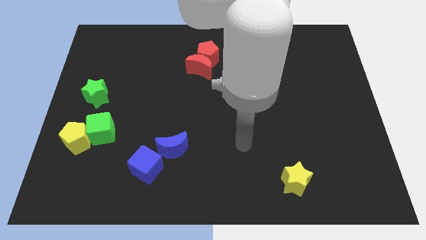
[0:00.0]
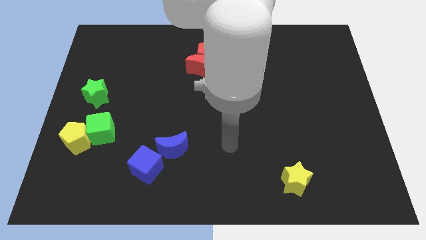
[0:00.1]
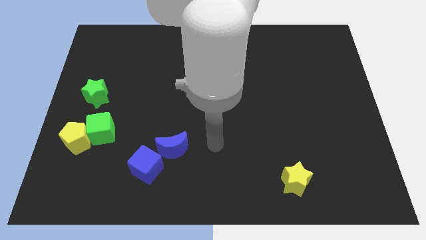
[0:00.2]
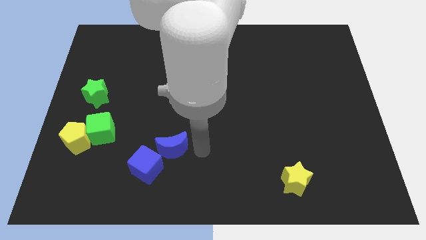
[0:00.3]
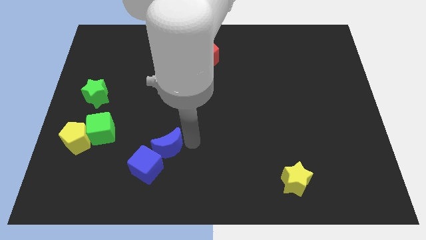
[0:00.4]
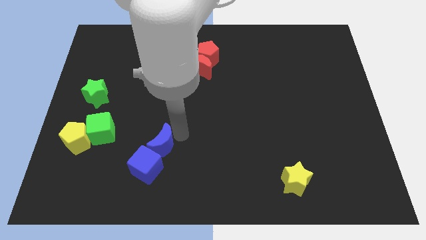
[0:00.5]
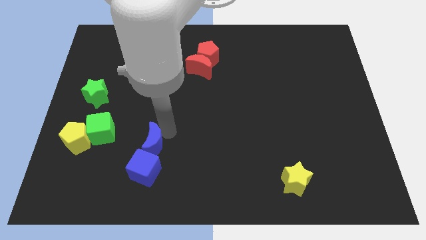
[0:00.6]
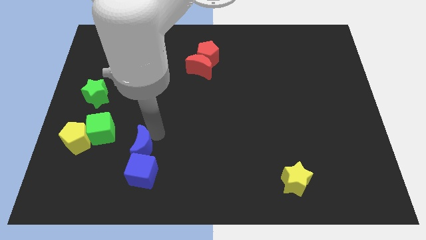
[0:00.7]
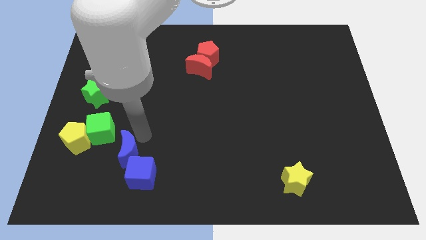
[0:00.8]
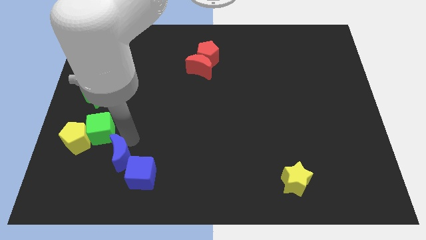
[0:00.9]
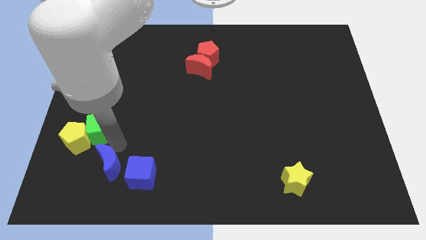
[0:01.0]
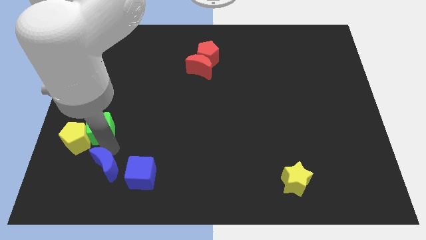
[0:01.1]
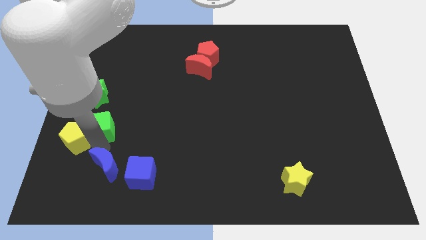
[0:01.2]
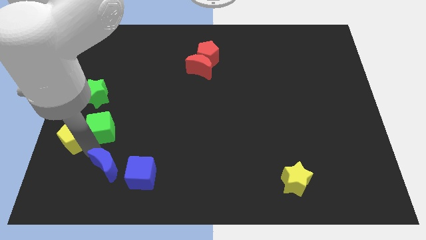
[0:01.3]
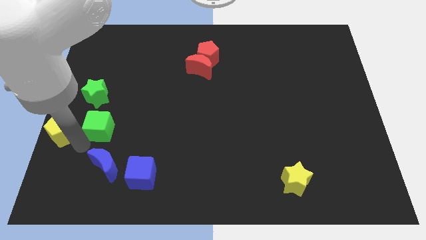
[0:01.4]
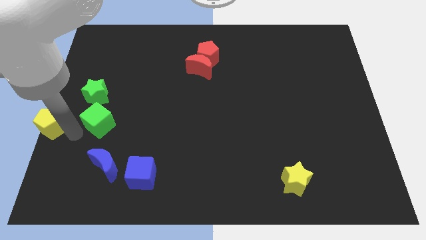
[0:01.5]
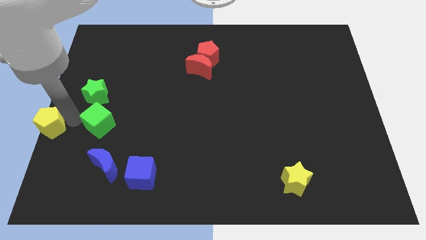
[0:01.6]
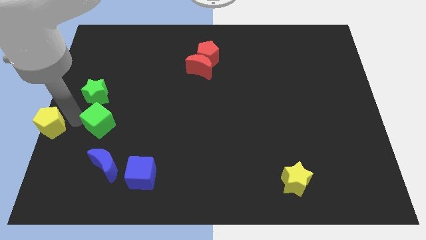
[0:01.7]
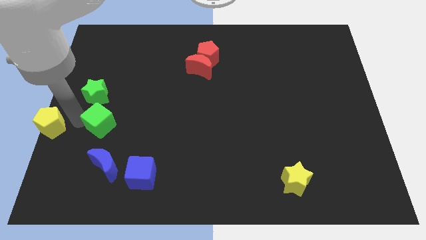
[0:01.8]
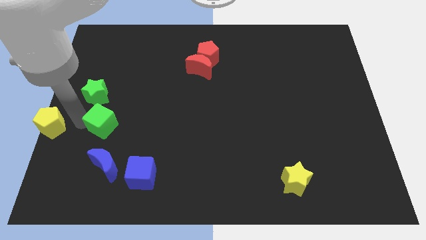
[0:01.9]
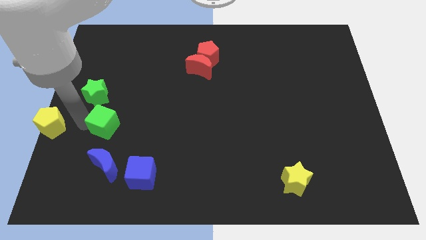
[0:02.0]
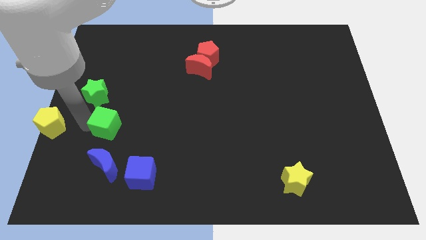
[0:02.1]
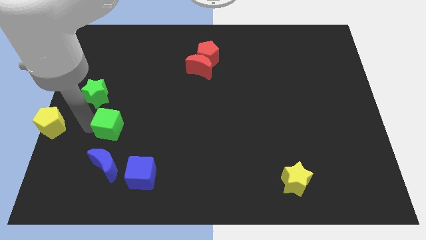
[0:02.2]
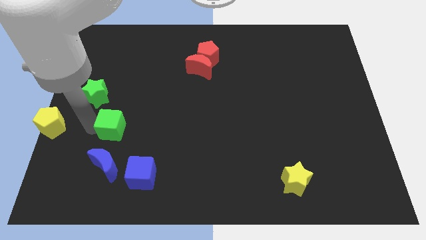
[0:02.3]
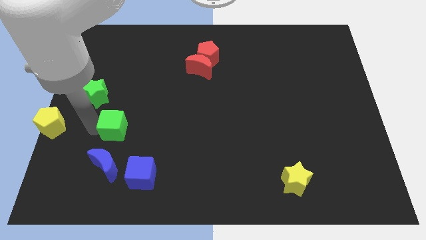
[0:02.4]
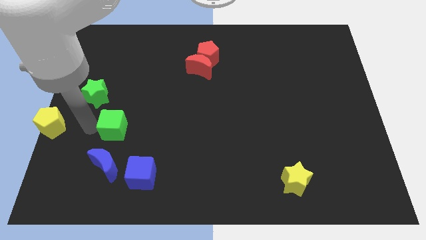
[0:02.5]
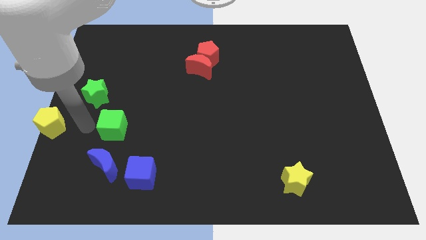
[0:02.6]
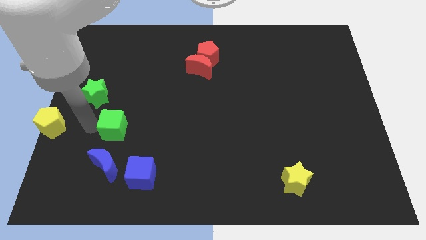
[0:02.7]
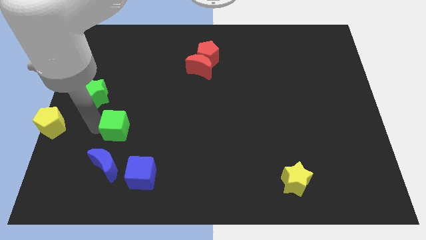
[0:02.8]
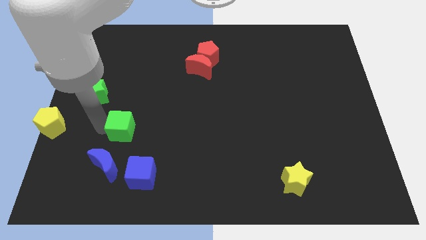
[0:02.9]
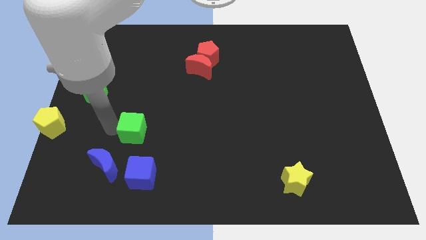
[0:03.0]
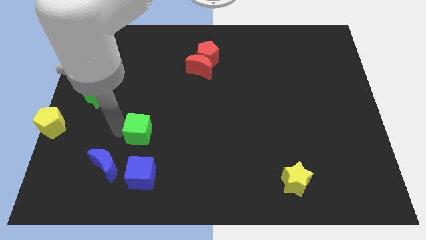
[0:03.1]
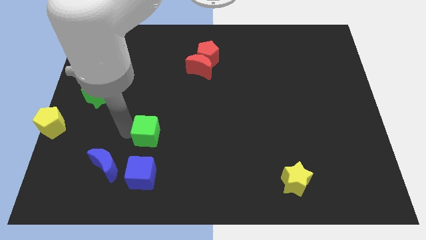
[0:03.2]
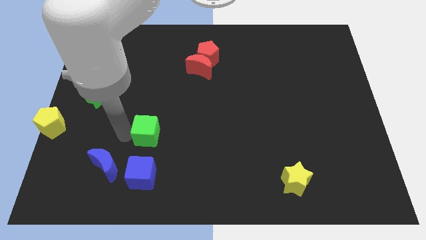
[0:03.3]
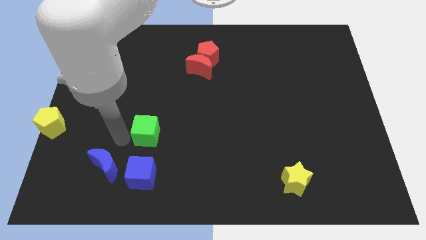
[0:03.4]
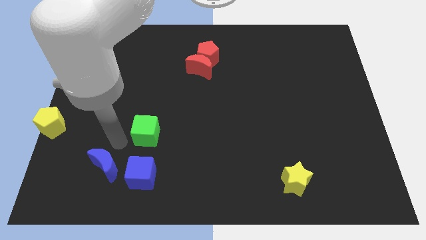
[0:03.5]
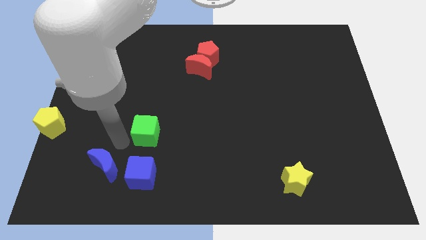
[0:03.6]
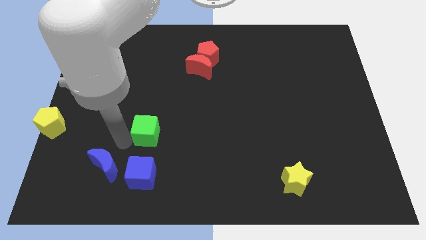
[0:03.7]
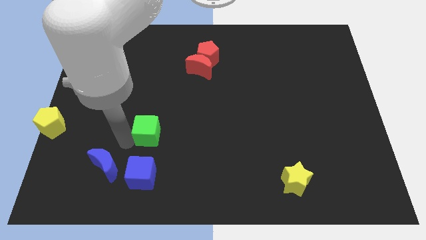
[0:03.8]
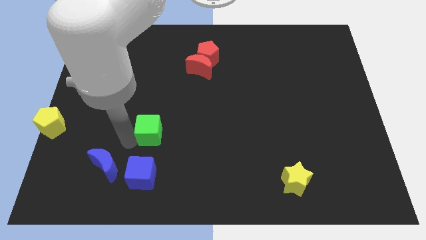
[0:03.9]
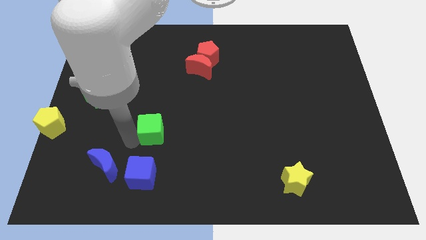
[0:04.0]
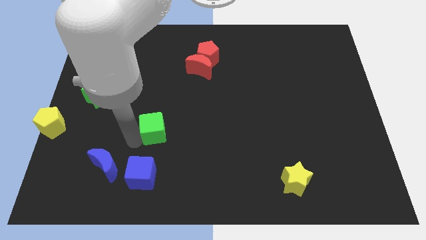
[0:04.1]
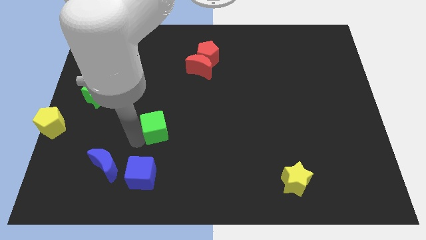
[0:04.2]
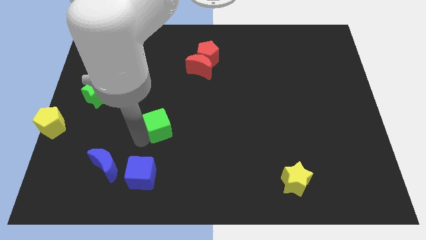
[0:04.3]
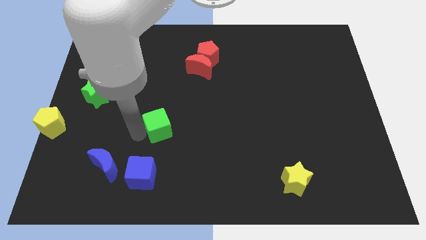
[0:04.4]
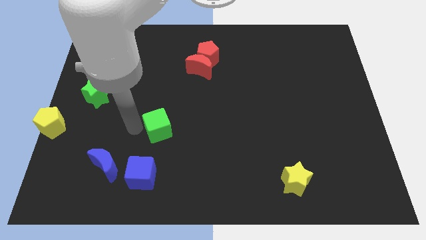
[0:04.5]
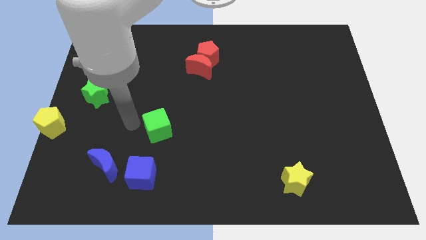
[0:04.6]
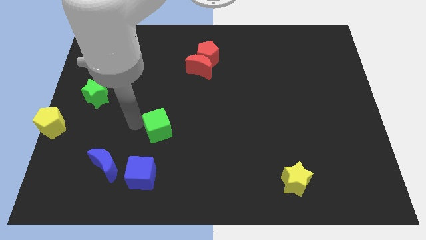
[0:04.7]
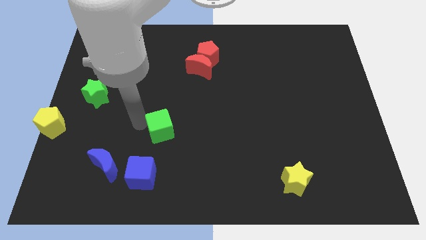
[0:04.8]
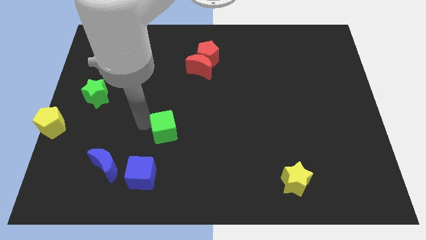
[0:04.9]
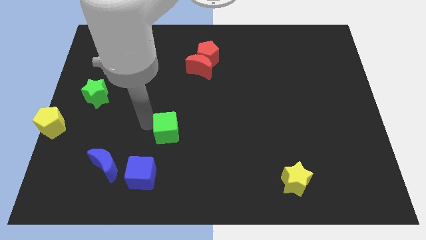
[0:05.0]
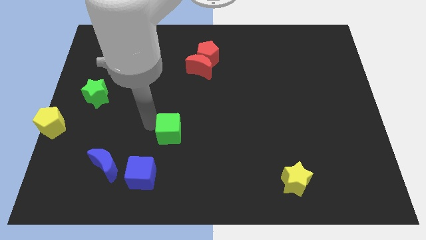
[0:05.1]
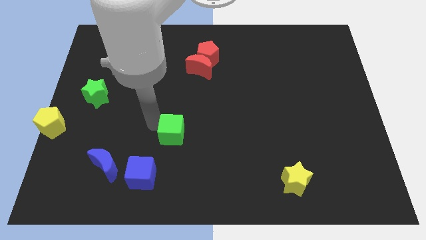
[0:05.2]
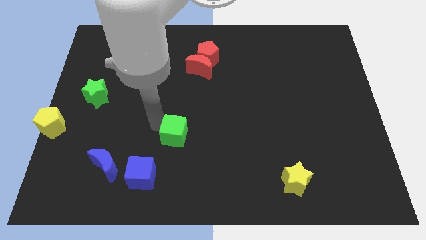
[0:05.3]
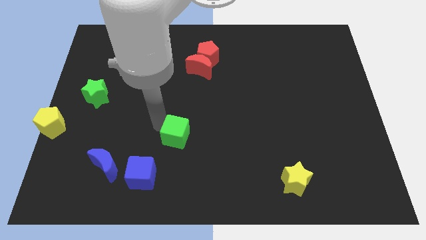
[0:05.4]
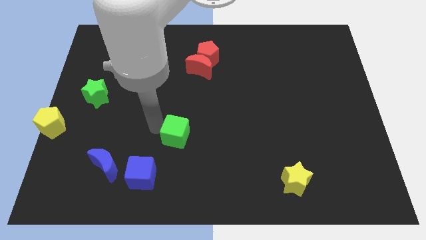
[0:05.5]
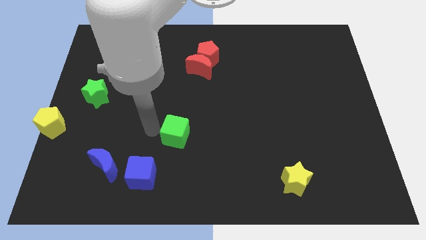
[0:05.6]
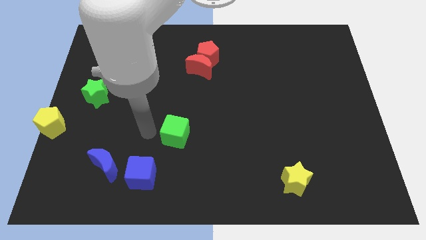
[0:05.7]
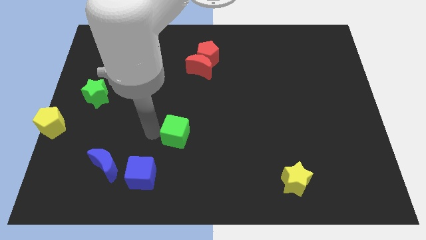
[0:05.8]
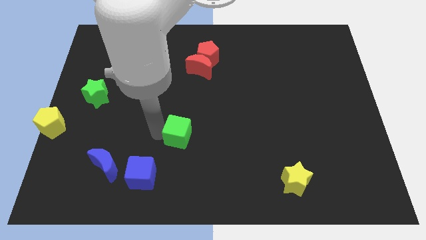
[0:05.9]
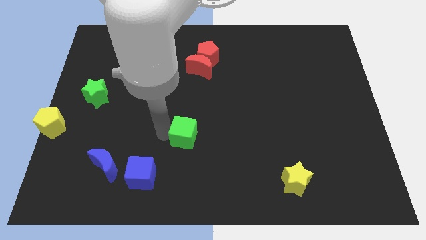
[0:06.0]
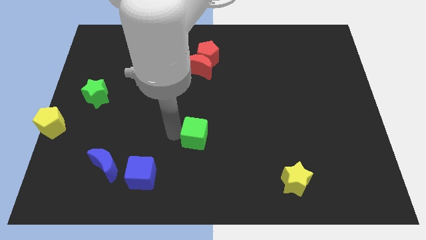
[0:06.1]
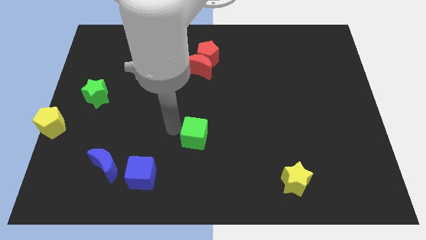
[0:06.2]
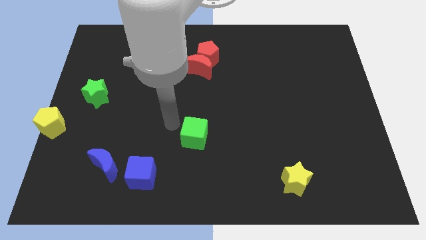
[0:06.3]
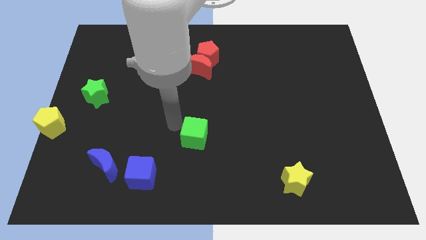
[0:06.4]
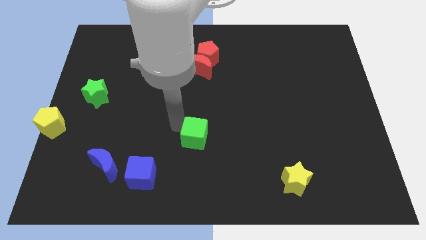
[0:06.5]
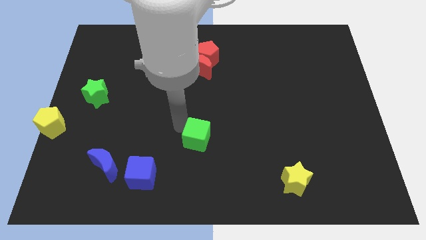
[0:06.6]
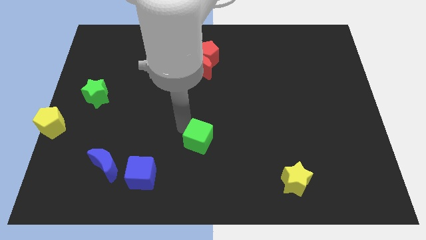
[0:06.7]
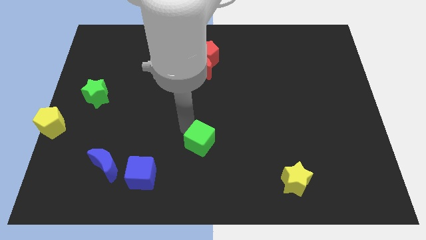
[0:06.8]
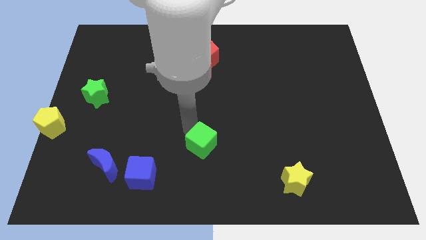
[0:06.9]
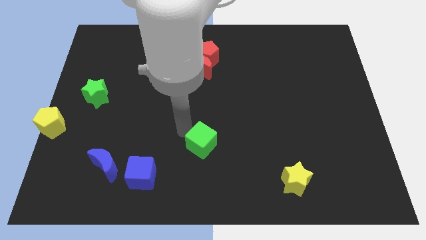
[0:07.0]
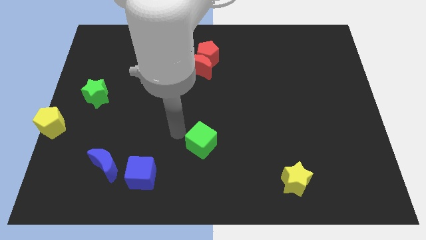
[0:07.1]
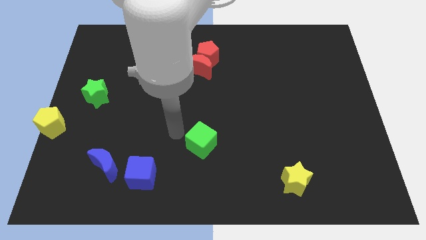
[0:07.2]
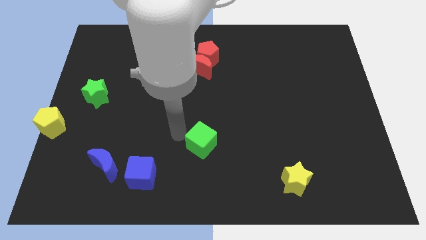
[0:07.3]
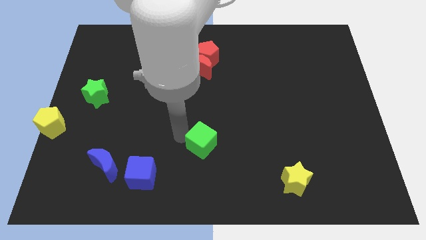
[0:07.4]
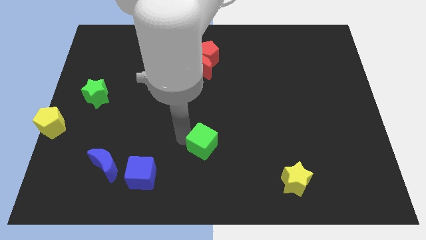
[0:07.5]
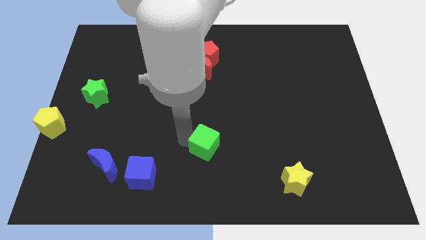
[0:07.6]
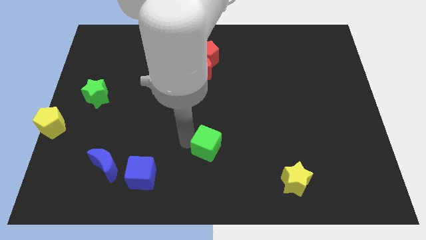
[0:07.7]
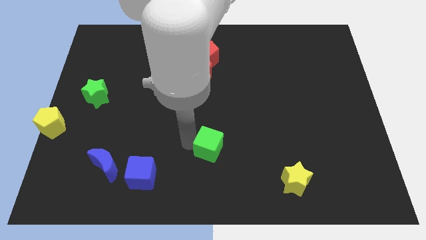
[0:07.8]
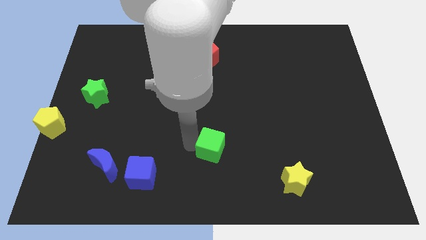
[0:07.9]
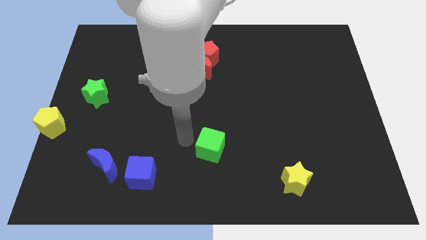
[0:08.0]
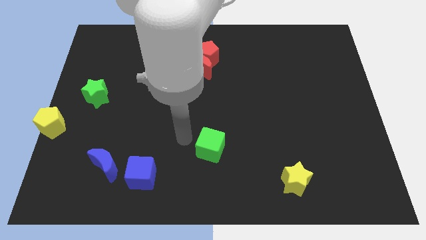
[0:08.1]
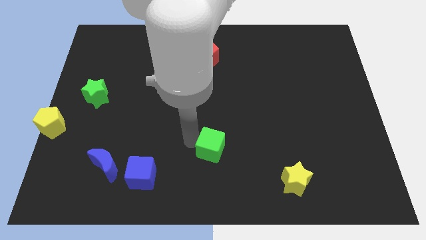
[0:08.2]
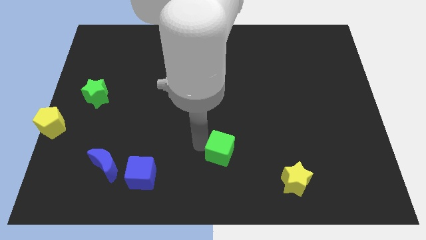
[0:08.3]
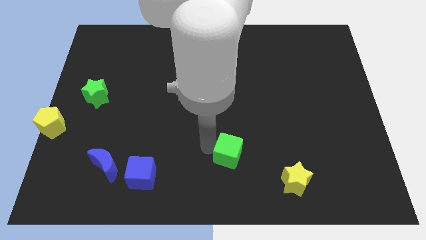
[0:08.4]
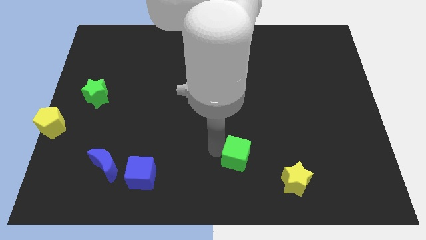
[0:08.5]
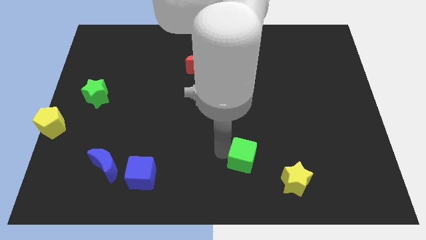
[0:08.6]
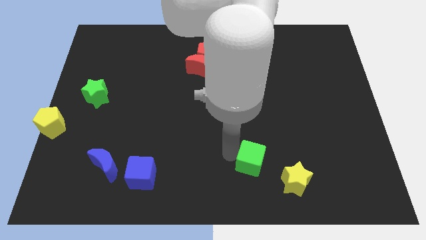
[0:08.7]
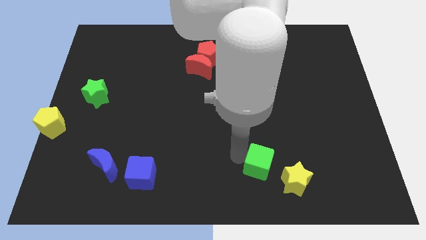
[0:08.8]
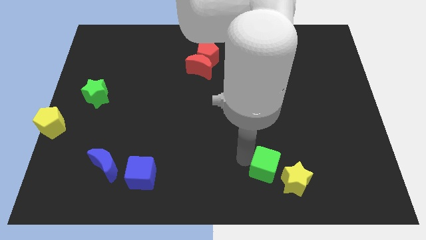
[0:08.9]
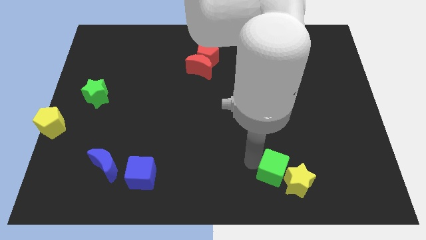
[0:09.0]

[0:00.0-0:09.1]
put the green cube close to the yellow star
